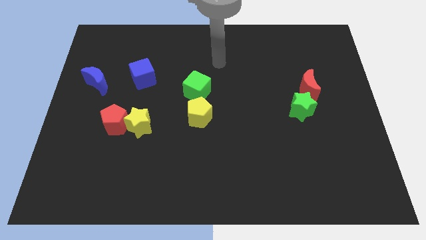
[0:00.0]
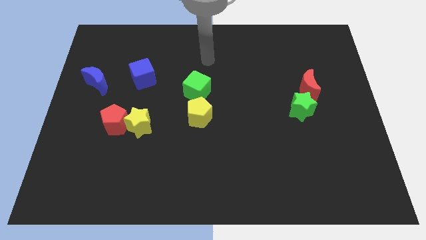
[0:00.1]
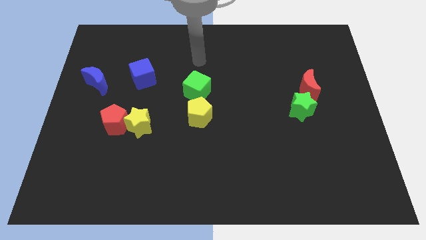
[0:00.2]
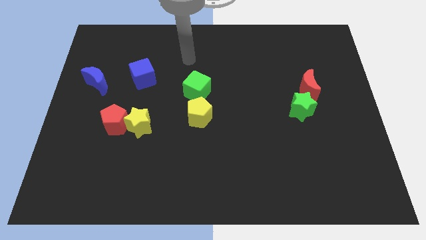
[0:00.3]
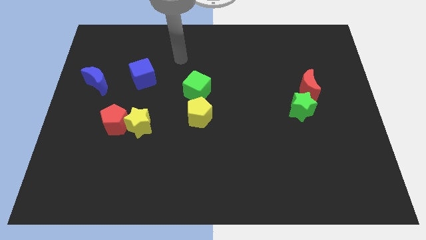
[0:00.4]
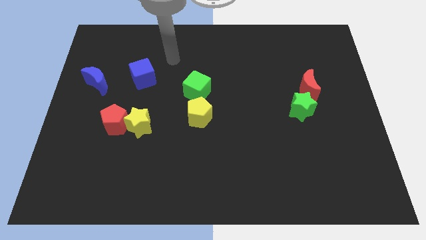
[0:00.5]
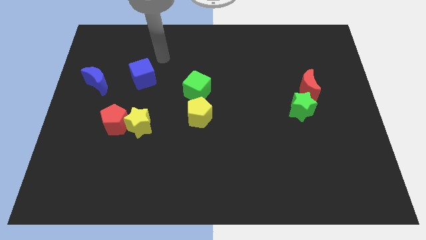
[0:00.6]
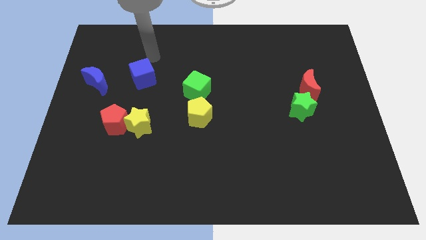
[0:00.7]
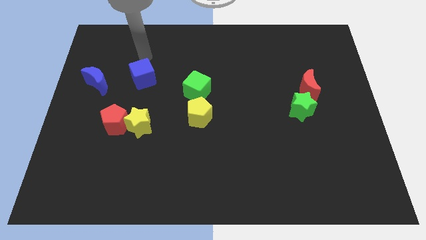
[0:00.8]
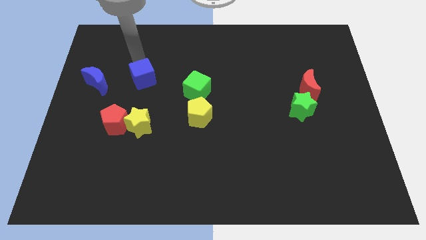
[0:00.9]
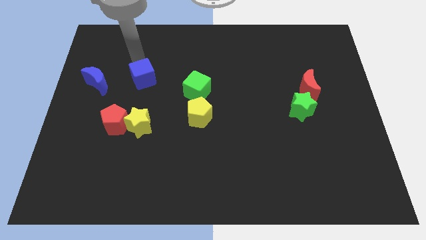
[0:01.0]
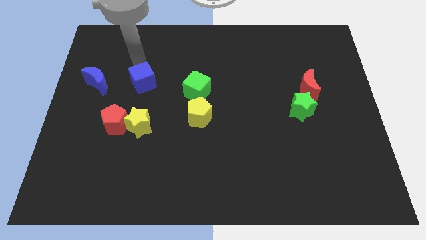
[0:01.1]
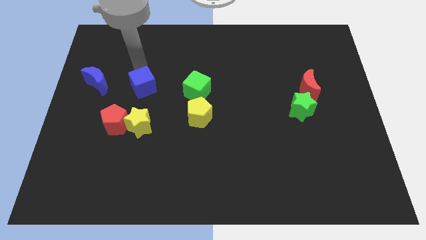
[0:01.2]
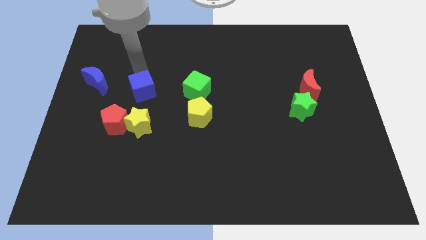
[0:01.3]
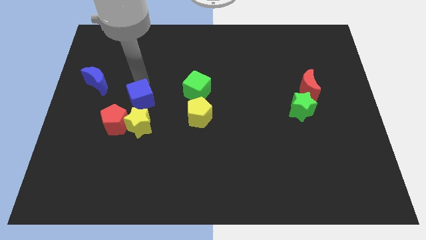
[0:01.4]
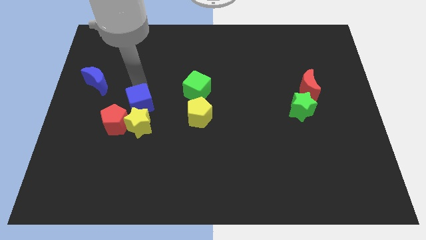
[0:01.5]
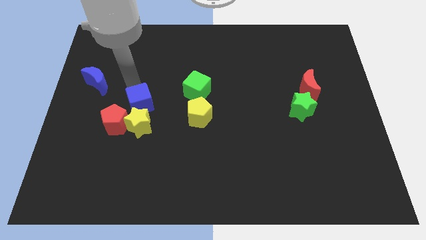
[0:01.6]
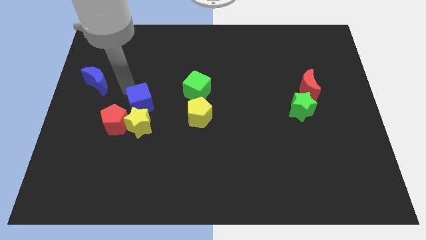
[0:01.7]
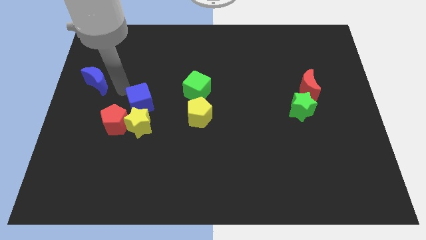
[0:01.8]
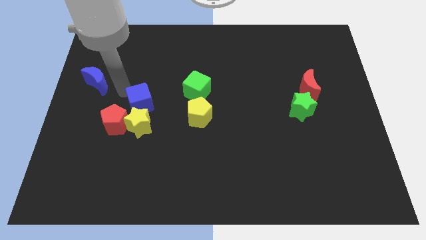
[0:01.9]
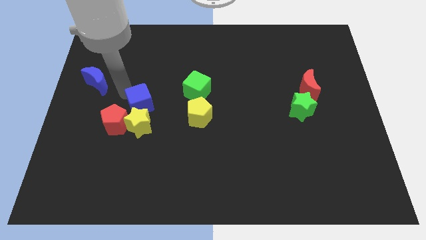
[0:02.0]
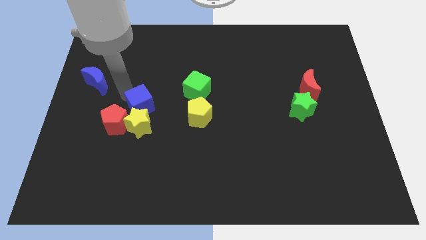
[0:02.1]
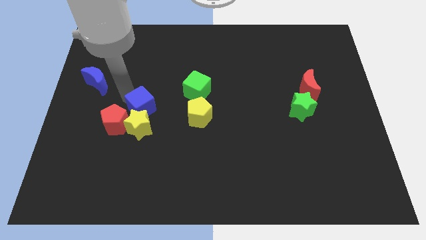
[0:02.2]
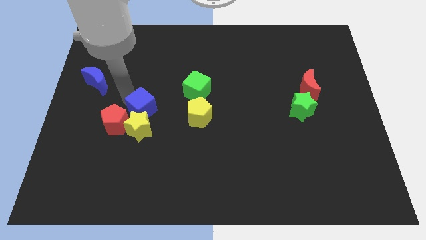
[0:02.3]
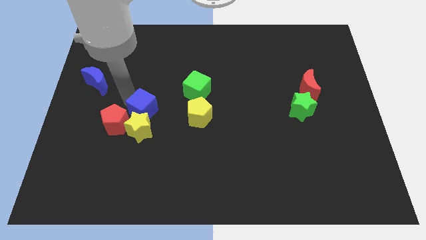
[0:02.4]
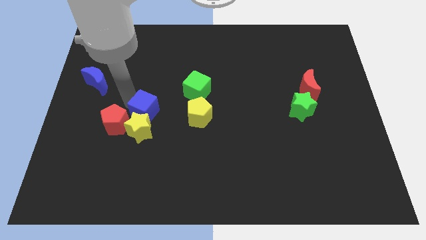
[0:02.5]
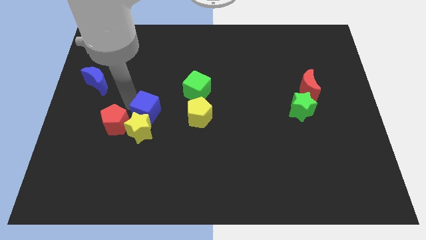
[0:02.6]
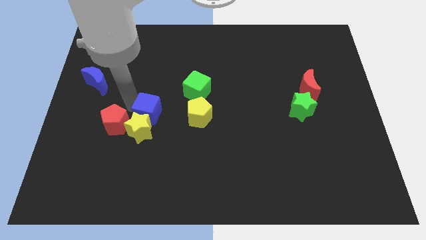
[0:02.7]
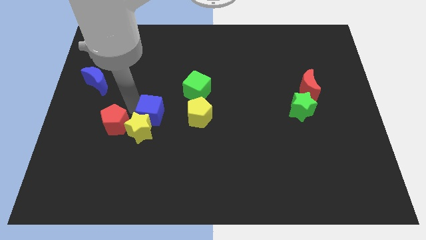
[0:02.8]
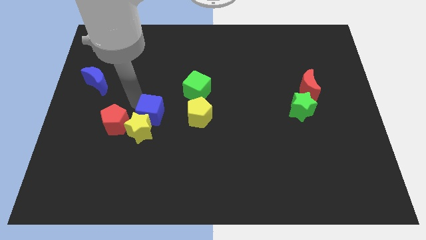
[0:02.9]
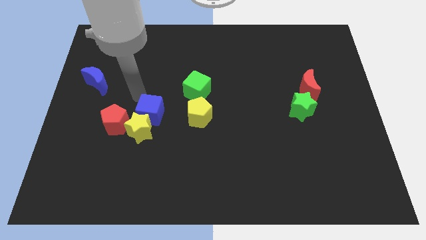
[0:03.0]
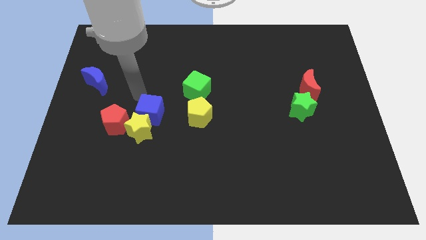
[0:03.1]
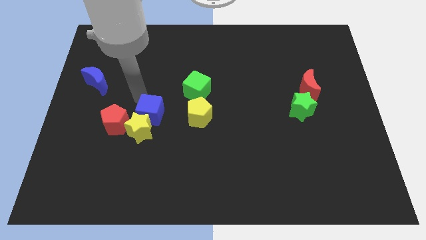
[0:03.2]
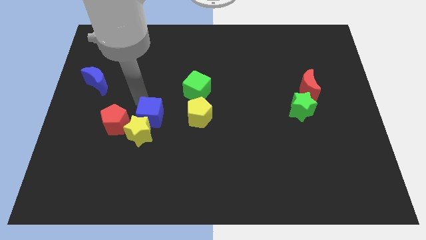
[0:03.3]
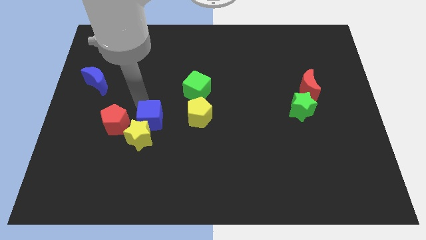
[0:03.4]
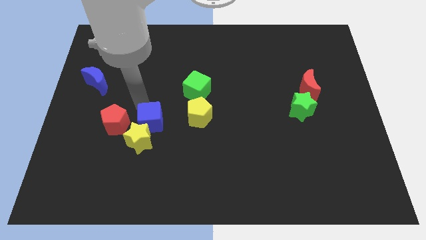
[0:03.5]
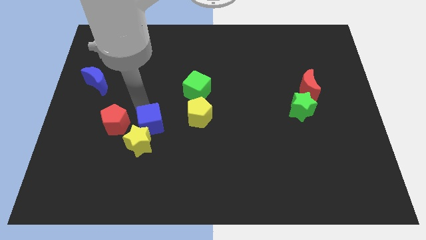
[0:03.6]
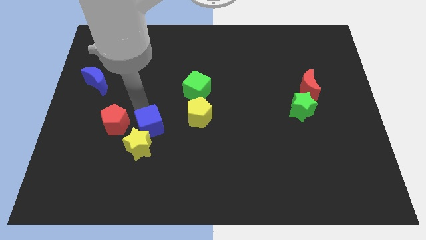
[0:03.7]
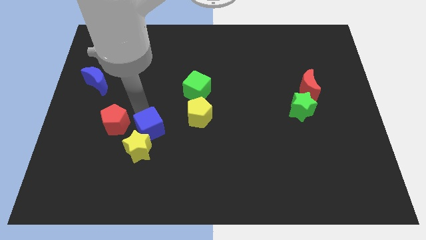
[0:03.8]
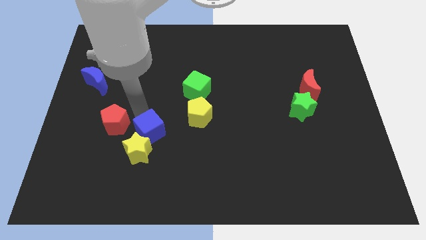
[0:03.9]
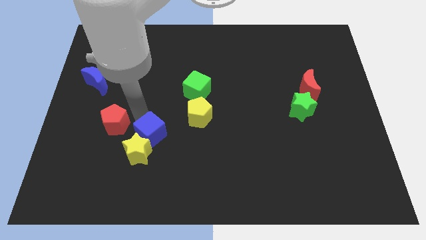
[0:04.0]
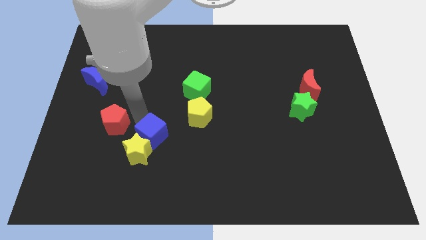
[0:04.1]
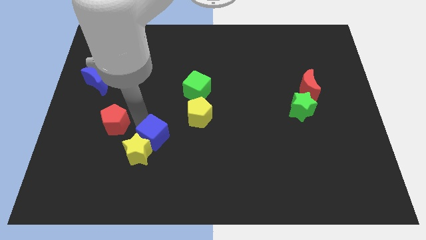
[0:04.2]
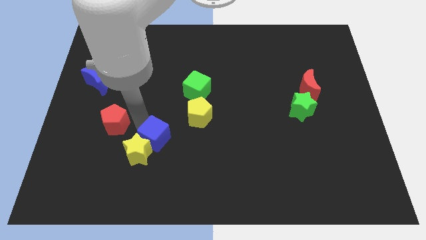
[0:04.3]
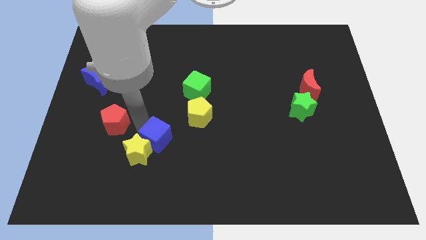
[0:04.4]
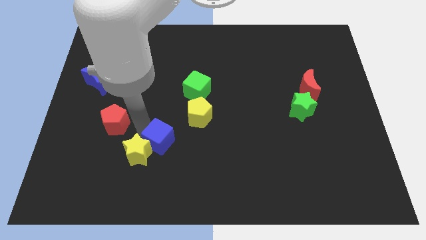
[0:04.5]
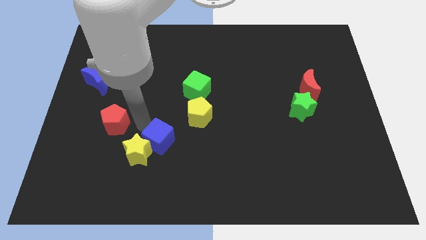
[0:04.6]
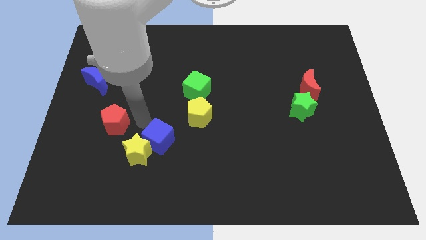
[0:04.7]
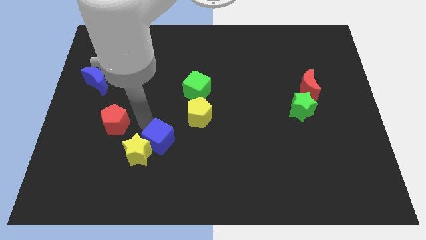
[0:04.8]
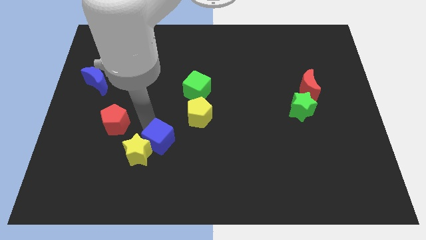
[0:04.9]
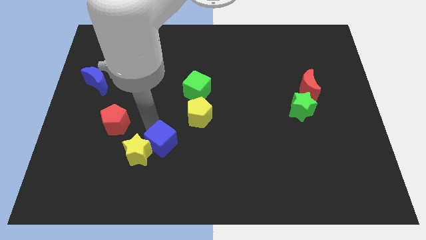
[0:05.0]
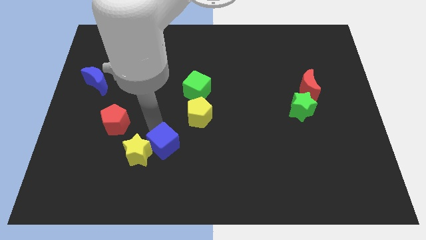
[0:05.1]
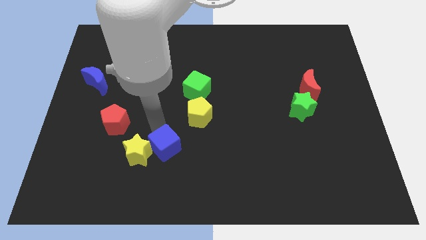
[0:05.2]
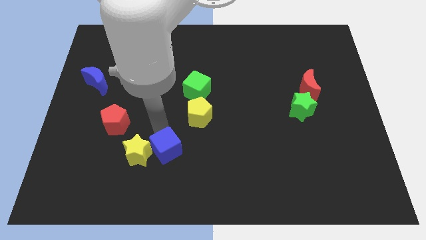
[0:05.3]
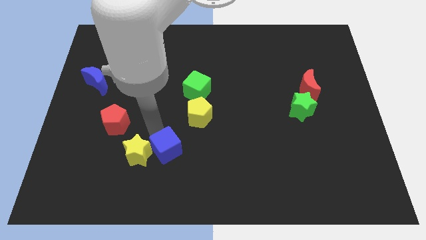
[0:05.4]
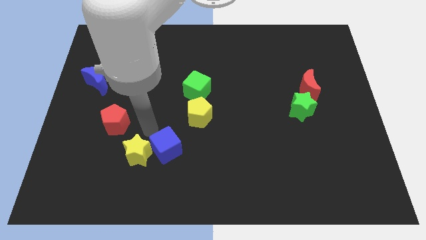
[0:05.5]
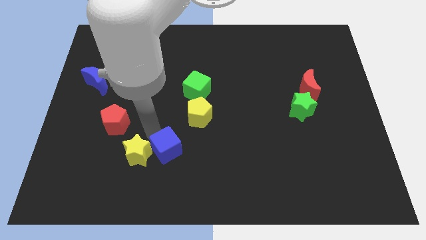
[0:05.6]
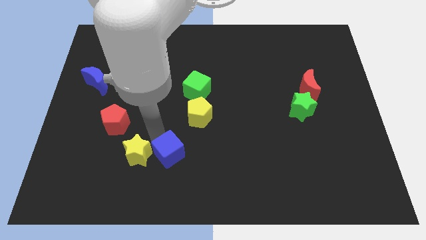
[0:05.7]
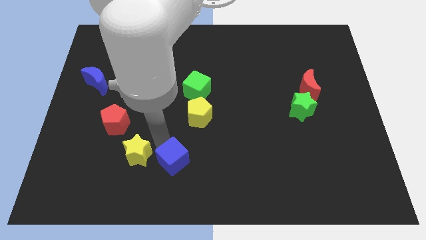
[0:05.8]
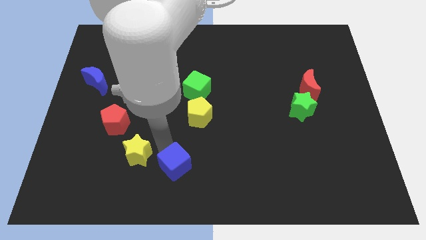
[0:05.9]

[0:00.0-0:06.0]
move the blue cube to the bottom side

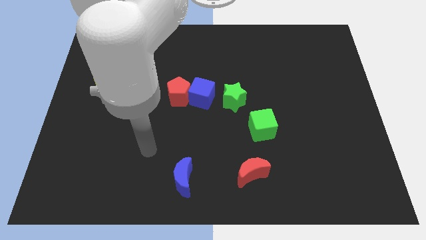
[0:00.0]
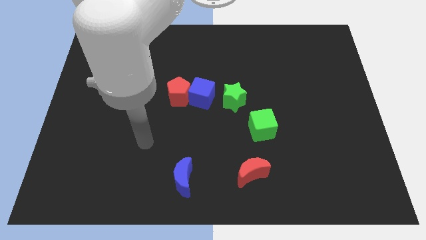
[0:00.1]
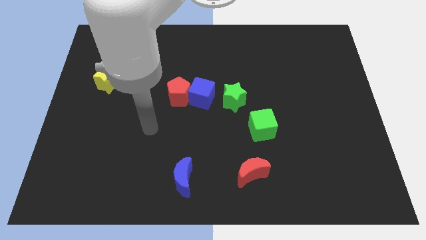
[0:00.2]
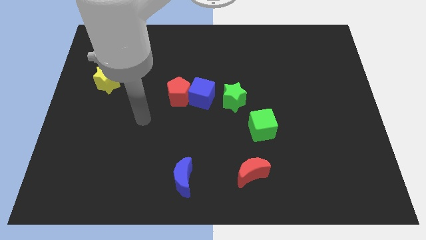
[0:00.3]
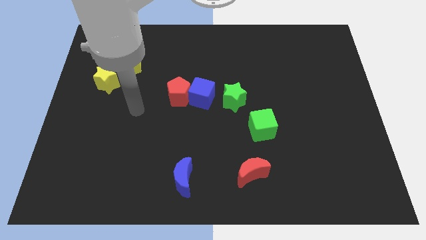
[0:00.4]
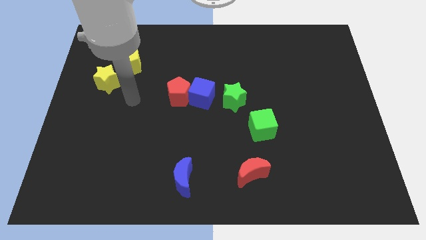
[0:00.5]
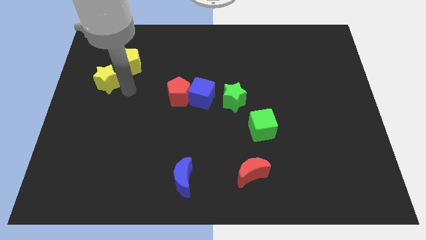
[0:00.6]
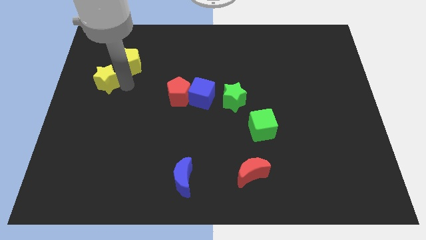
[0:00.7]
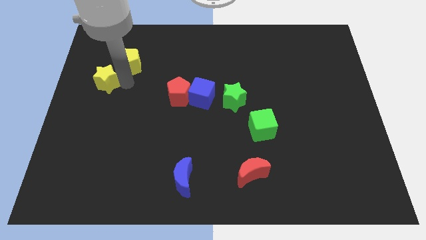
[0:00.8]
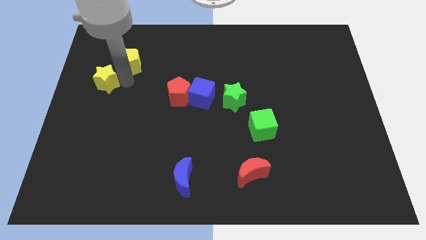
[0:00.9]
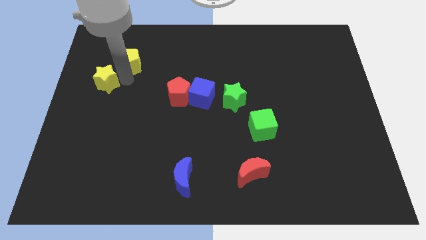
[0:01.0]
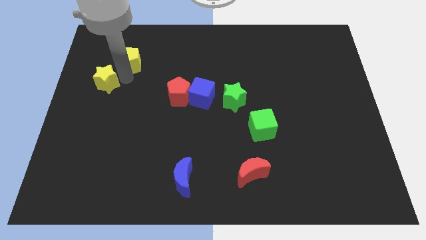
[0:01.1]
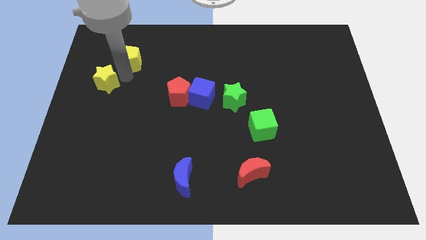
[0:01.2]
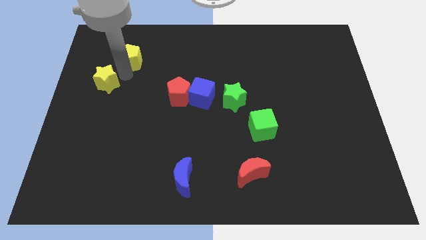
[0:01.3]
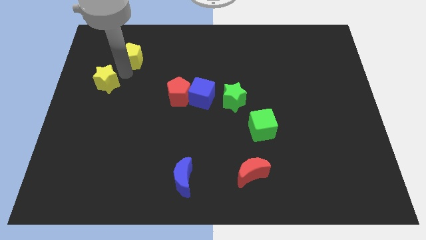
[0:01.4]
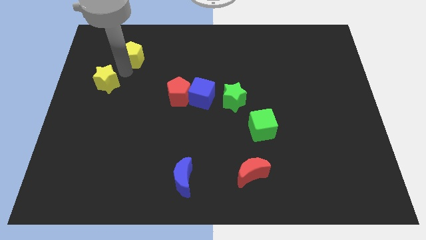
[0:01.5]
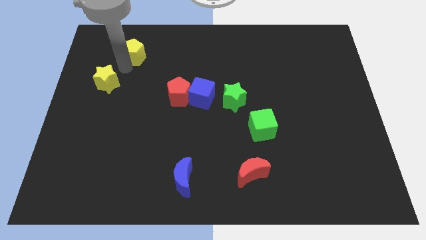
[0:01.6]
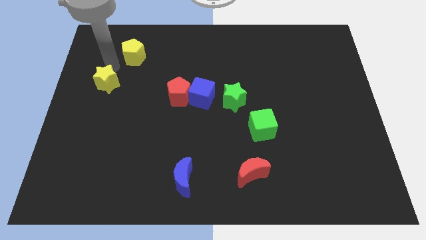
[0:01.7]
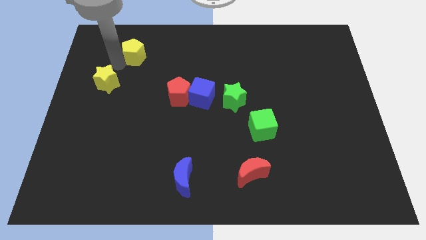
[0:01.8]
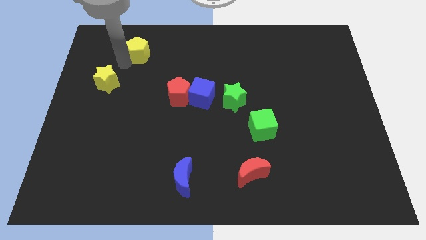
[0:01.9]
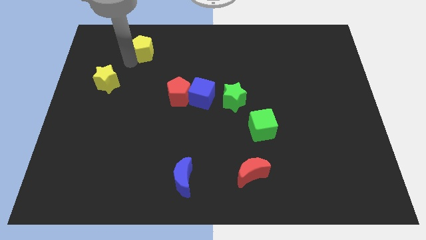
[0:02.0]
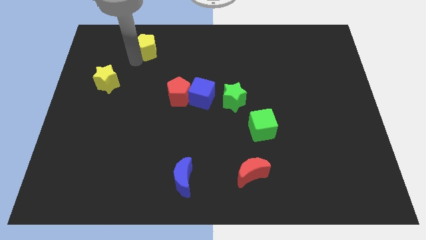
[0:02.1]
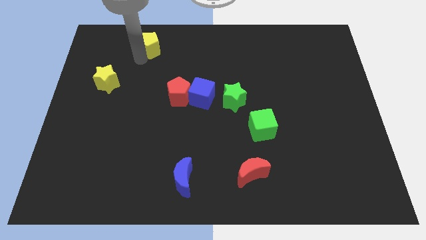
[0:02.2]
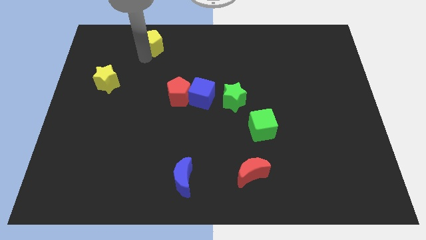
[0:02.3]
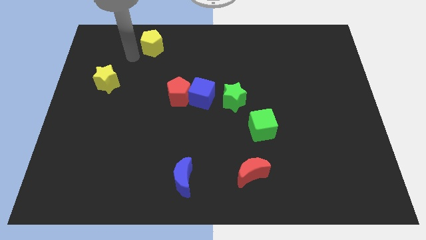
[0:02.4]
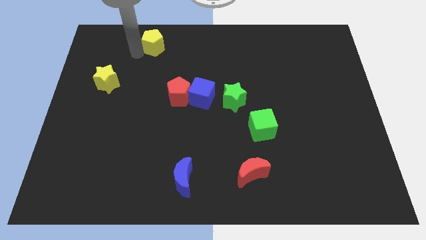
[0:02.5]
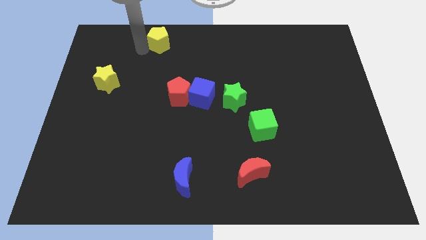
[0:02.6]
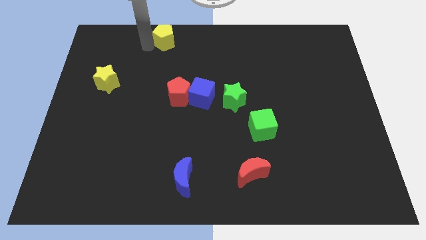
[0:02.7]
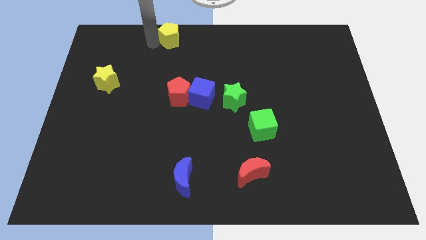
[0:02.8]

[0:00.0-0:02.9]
push the yellow pentagon to the top
